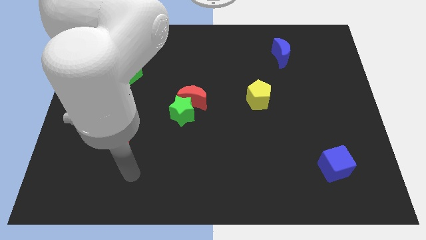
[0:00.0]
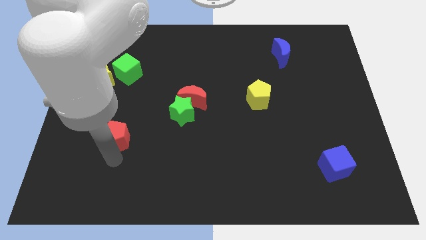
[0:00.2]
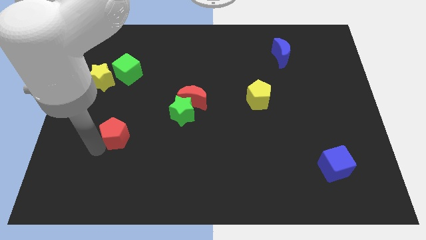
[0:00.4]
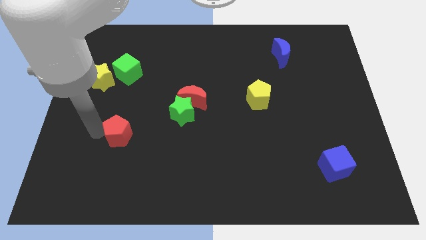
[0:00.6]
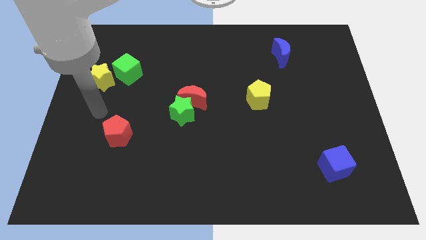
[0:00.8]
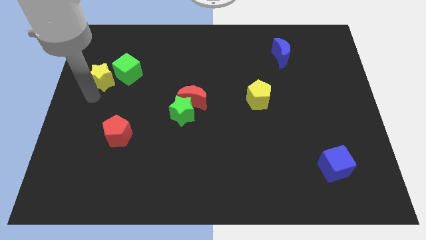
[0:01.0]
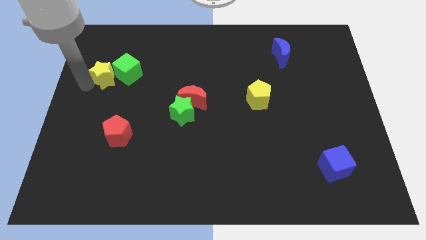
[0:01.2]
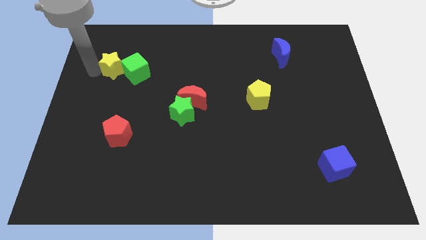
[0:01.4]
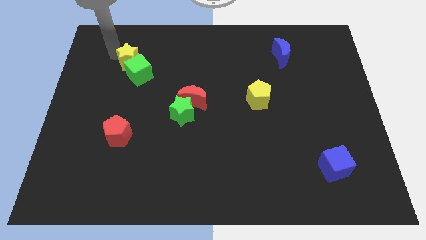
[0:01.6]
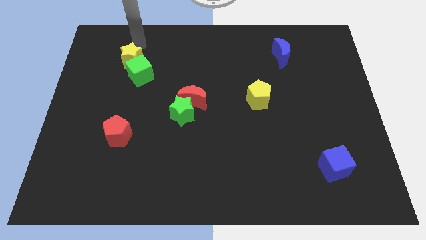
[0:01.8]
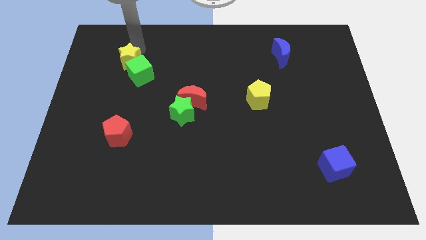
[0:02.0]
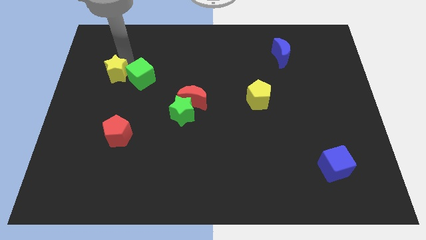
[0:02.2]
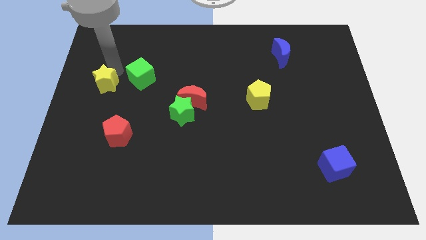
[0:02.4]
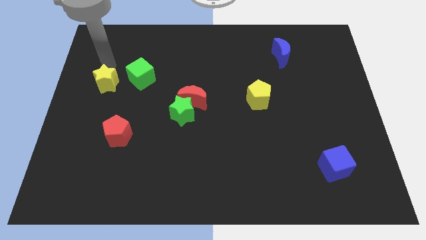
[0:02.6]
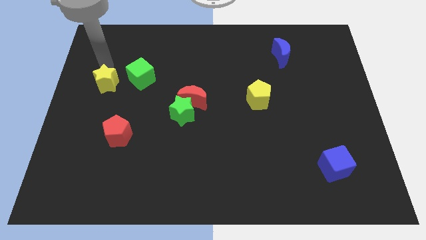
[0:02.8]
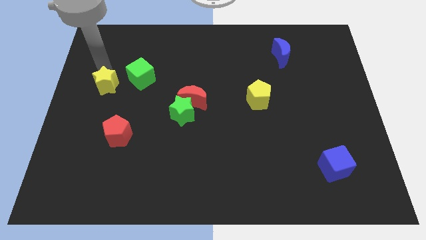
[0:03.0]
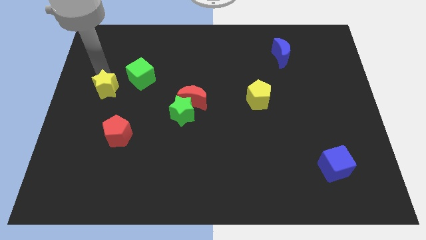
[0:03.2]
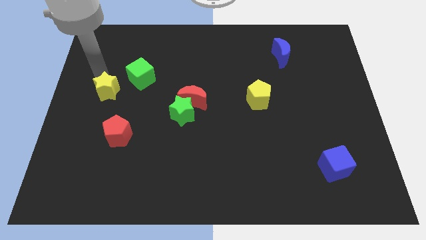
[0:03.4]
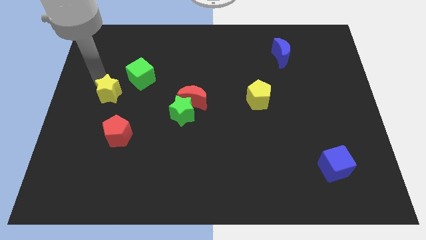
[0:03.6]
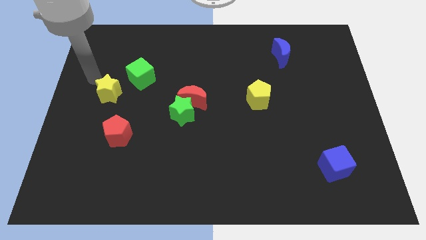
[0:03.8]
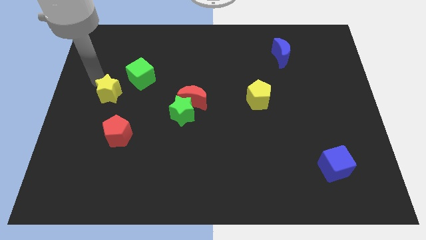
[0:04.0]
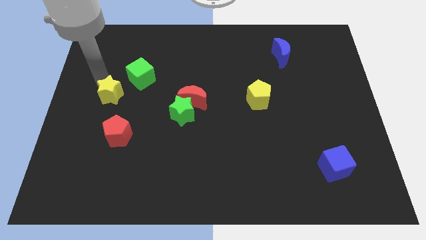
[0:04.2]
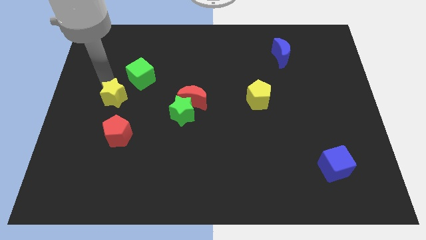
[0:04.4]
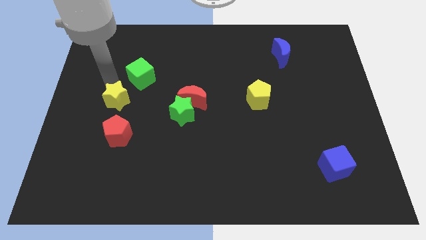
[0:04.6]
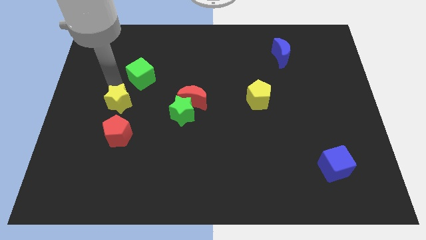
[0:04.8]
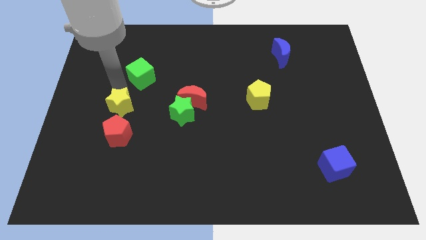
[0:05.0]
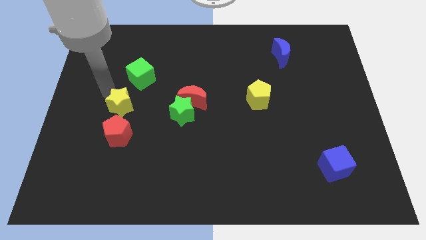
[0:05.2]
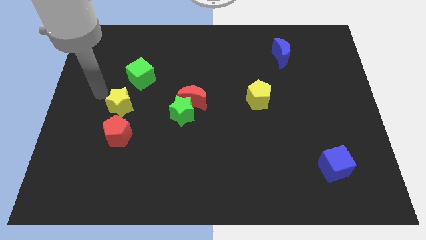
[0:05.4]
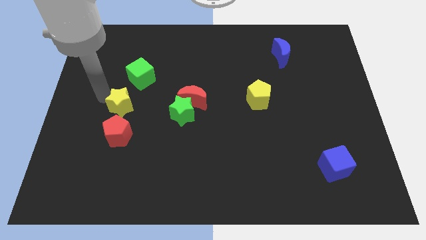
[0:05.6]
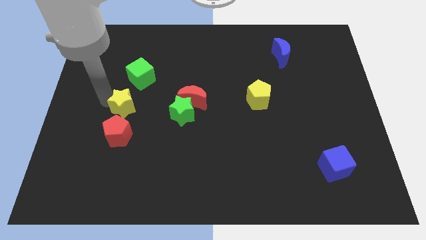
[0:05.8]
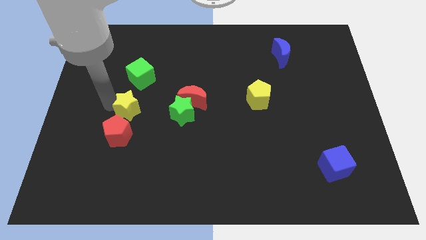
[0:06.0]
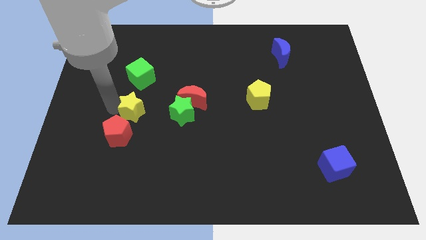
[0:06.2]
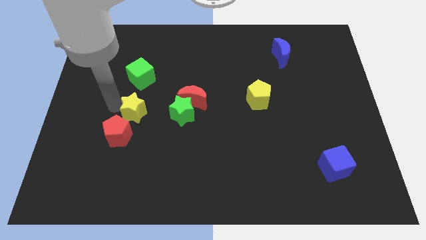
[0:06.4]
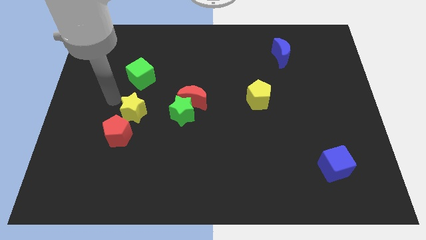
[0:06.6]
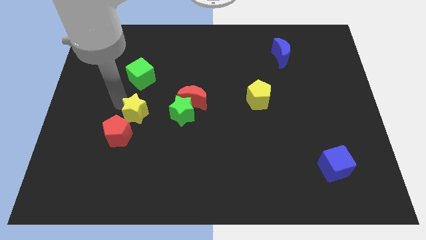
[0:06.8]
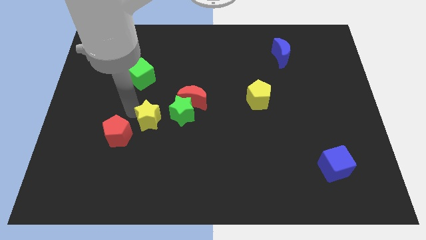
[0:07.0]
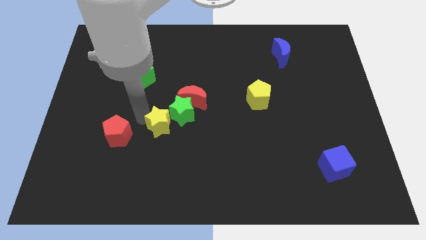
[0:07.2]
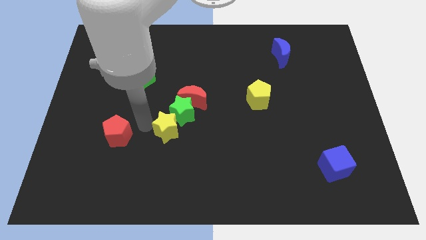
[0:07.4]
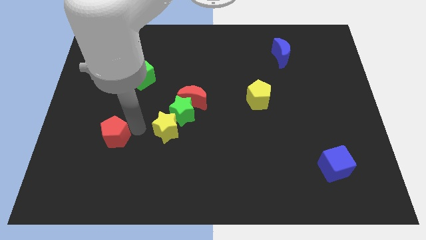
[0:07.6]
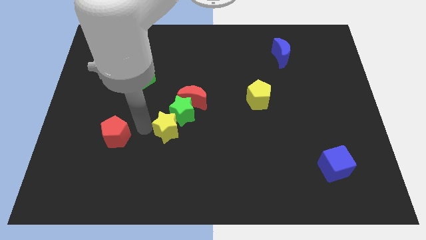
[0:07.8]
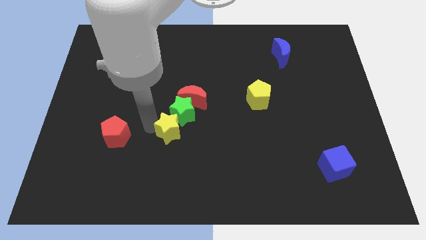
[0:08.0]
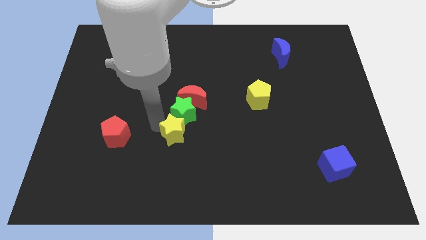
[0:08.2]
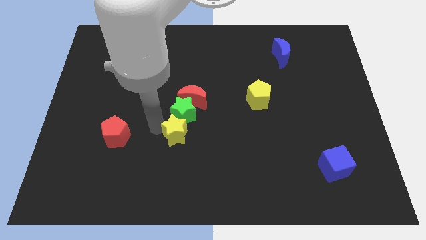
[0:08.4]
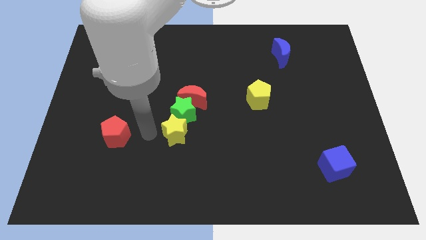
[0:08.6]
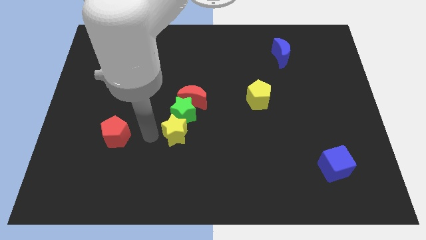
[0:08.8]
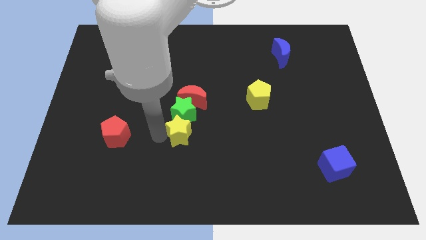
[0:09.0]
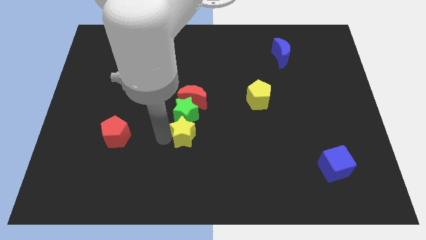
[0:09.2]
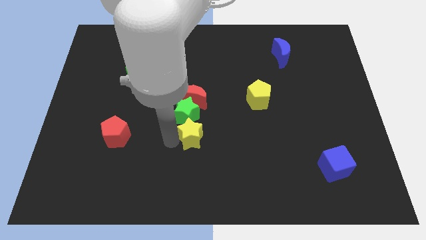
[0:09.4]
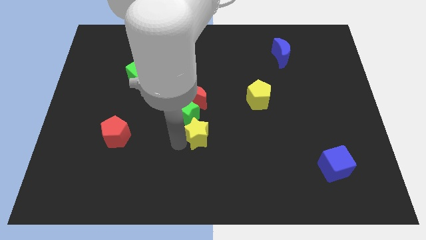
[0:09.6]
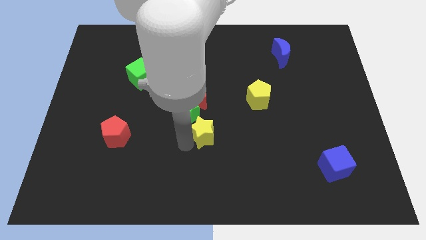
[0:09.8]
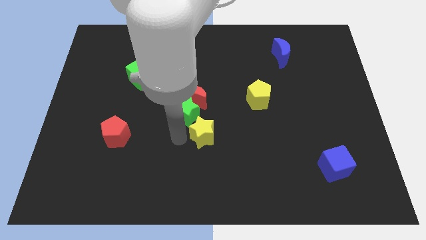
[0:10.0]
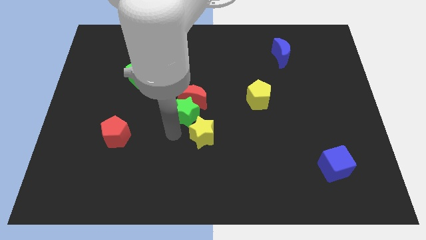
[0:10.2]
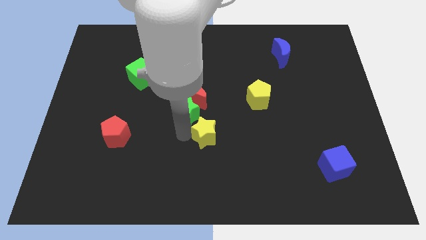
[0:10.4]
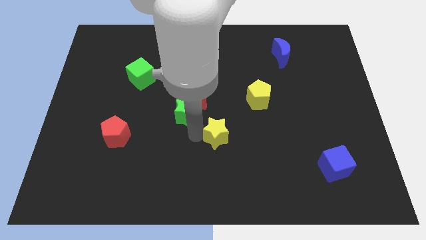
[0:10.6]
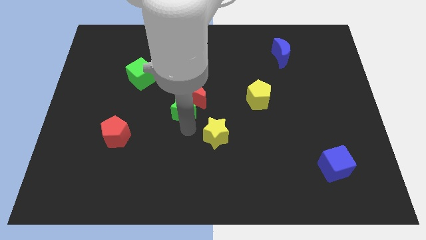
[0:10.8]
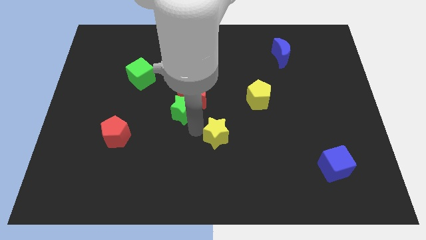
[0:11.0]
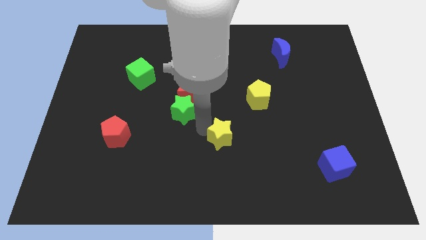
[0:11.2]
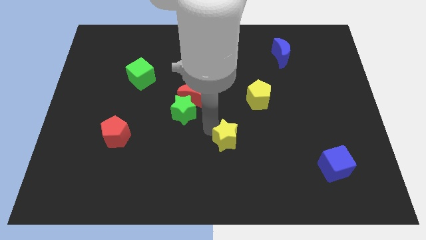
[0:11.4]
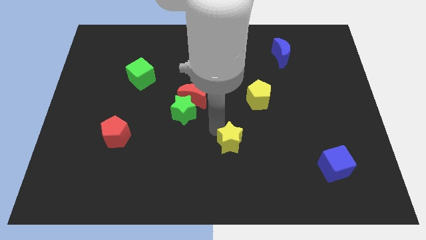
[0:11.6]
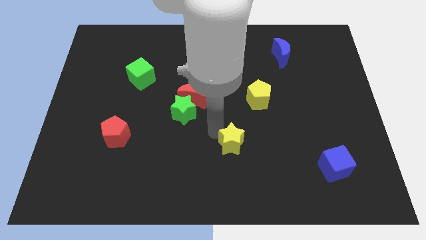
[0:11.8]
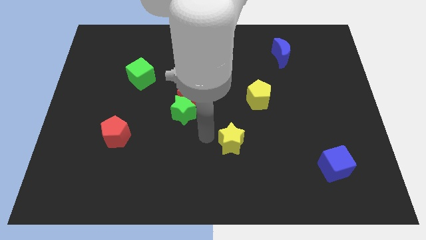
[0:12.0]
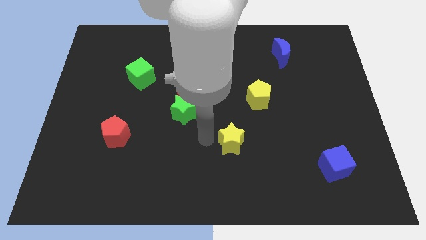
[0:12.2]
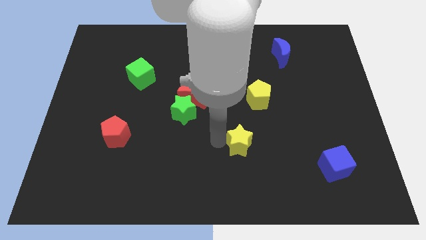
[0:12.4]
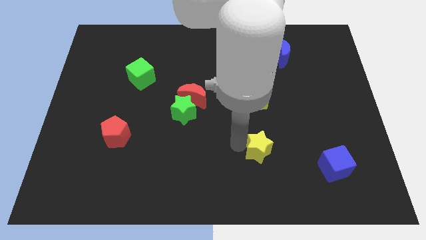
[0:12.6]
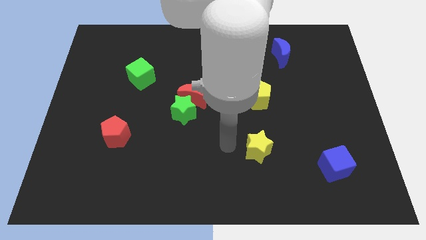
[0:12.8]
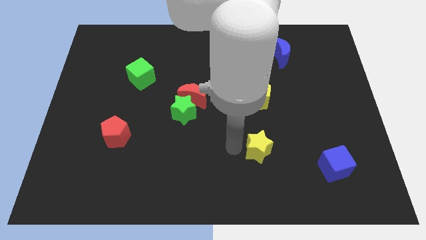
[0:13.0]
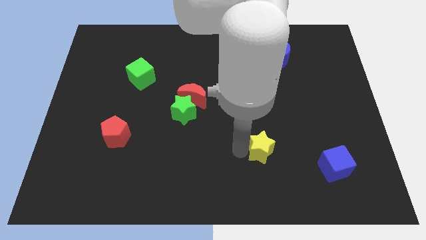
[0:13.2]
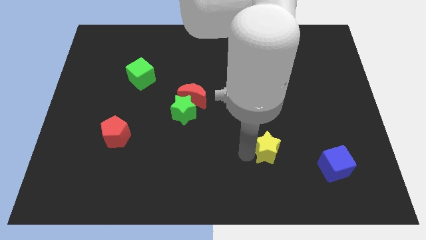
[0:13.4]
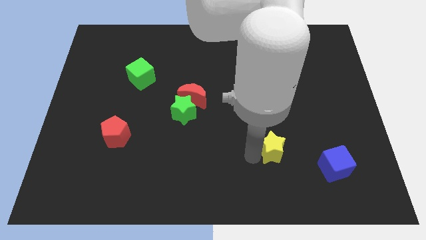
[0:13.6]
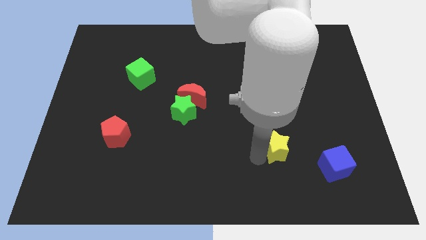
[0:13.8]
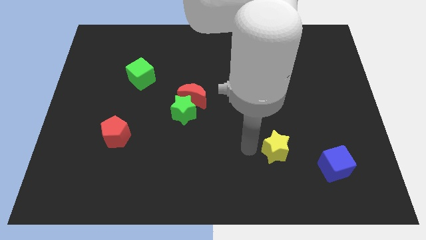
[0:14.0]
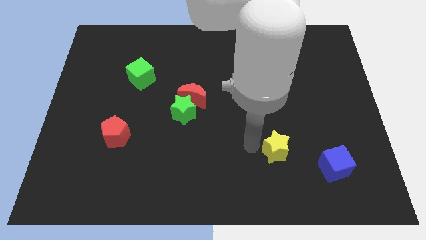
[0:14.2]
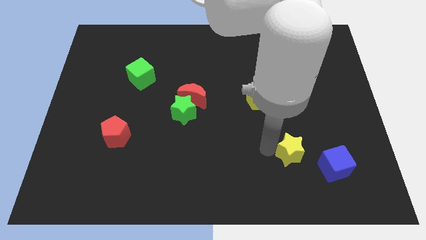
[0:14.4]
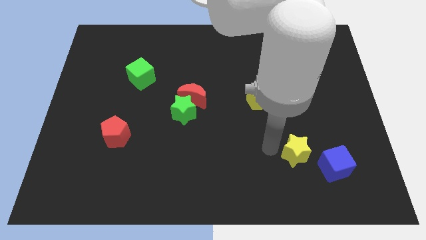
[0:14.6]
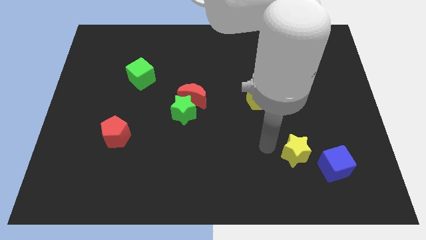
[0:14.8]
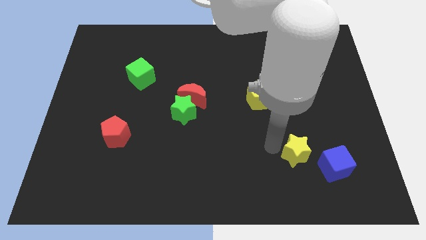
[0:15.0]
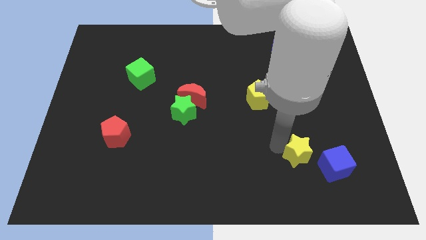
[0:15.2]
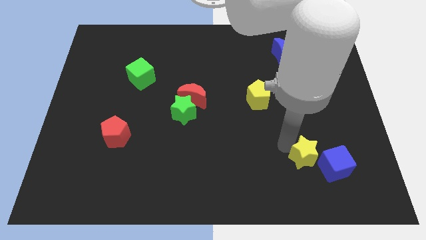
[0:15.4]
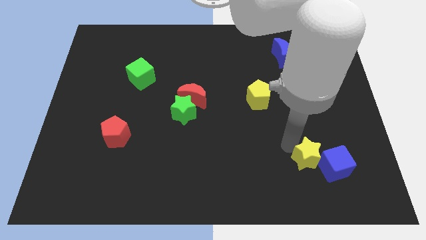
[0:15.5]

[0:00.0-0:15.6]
push the yellow star next to the blue cube
